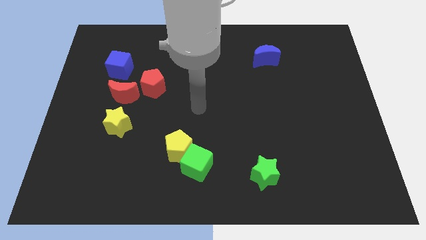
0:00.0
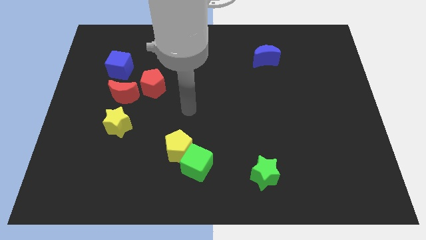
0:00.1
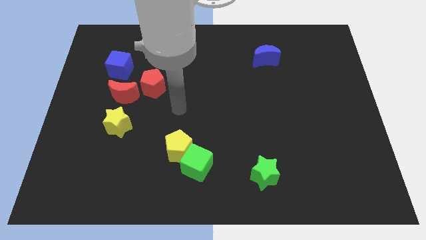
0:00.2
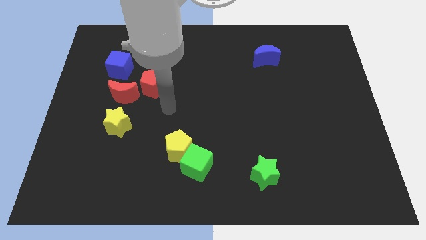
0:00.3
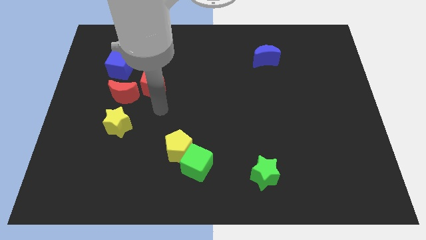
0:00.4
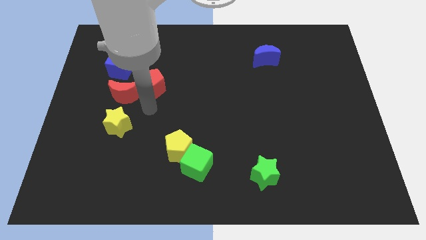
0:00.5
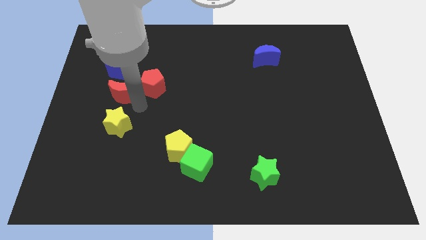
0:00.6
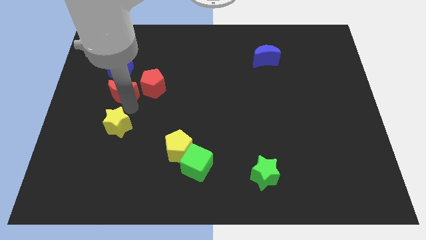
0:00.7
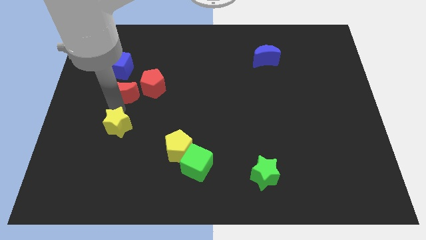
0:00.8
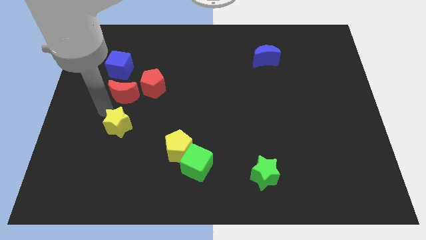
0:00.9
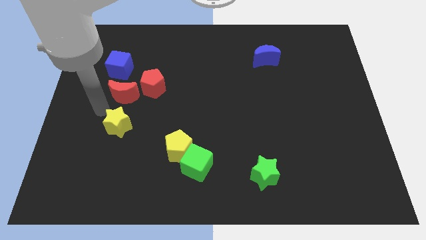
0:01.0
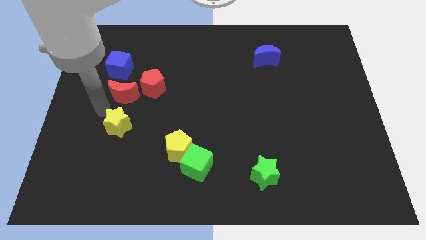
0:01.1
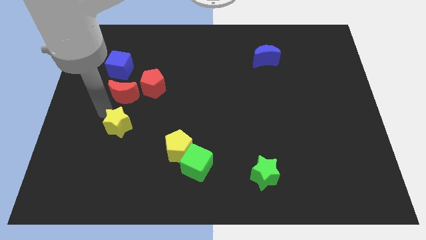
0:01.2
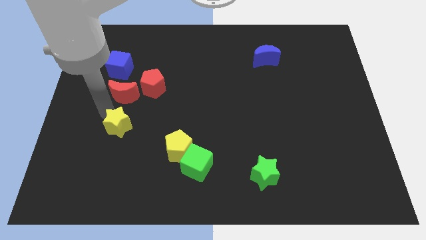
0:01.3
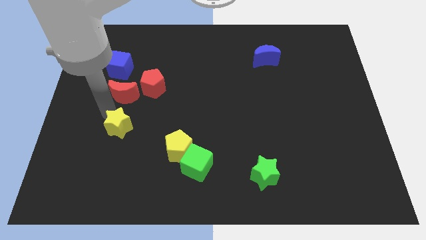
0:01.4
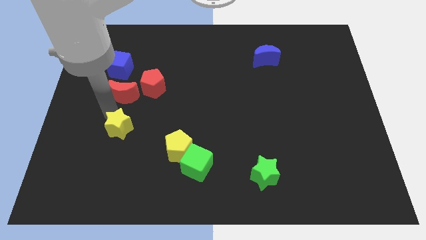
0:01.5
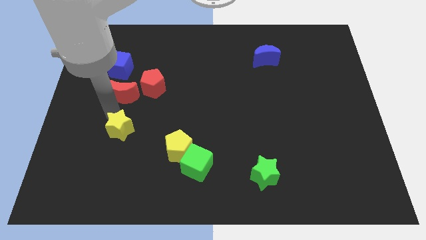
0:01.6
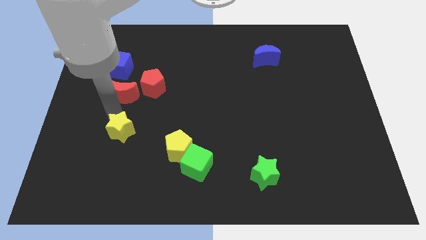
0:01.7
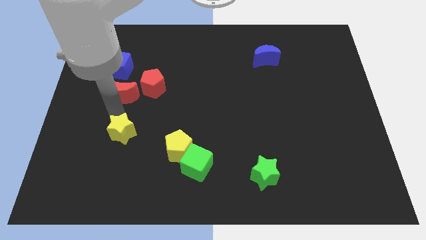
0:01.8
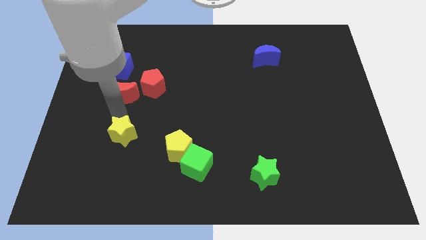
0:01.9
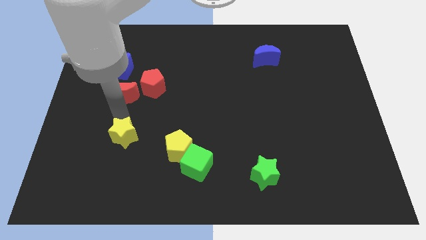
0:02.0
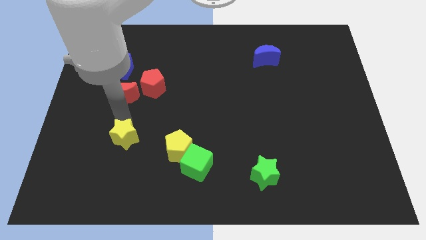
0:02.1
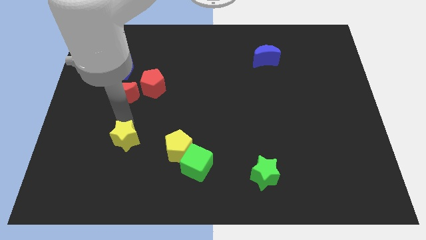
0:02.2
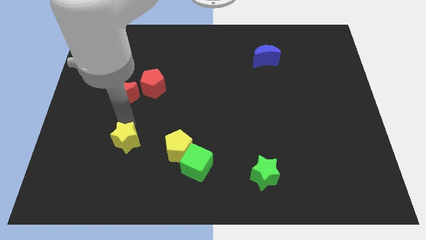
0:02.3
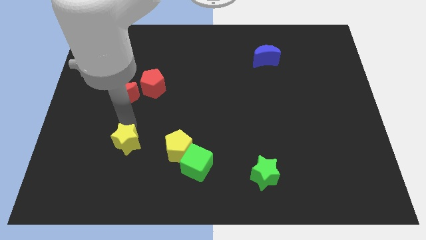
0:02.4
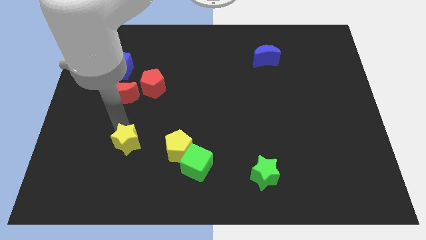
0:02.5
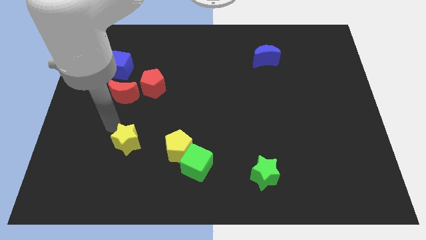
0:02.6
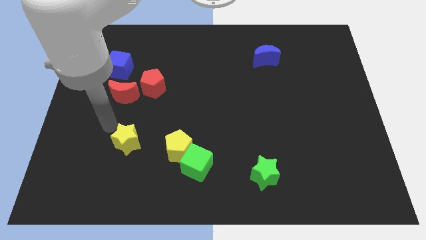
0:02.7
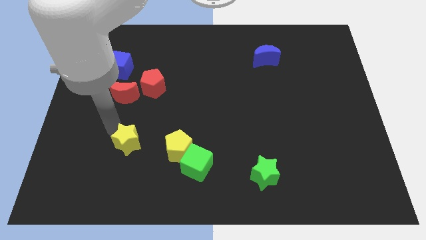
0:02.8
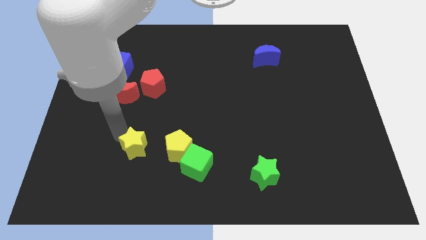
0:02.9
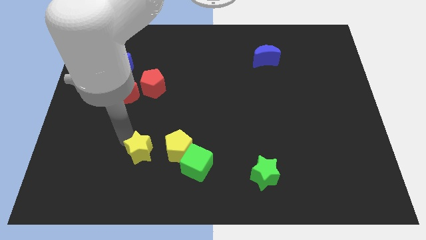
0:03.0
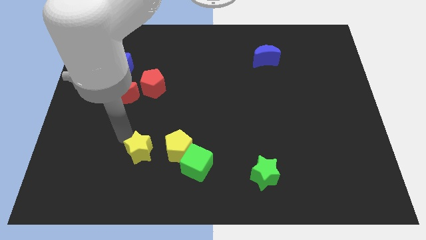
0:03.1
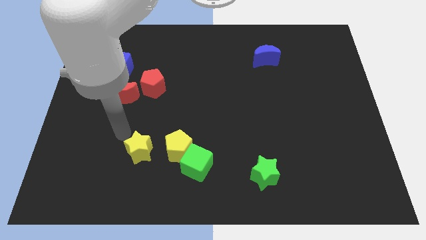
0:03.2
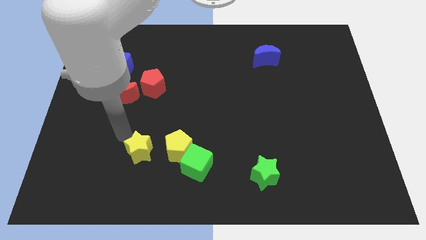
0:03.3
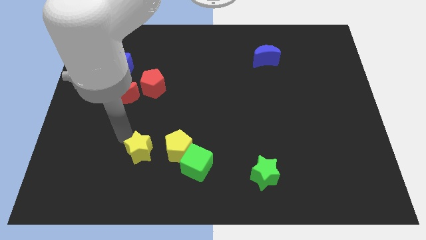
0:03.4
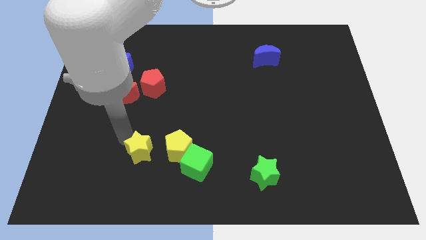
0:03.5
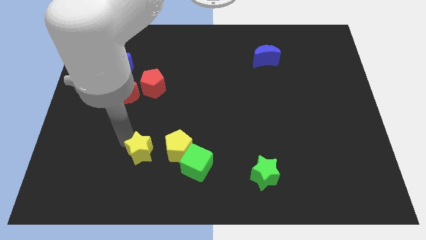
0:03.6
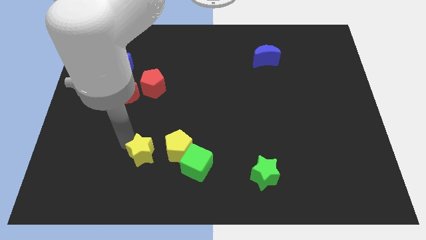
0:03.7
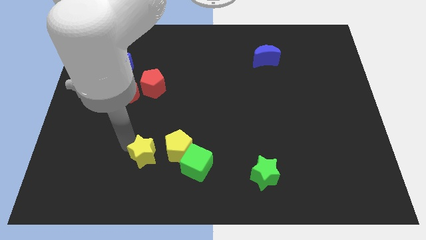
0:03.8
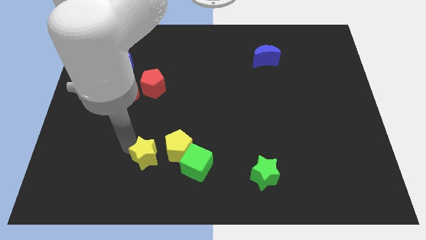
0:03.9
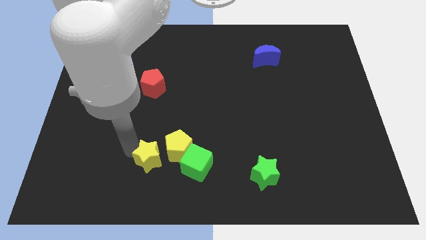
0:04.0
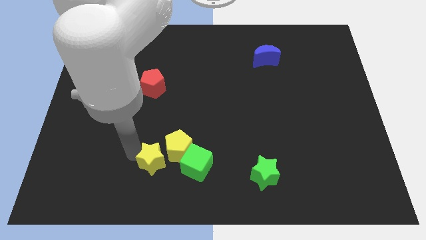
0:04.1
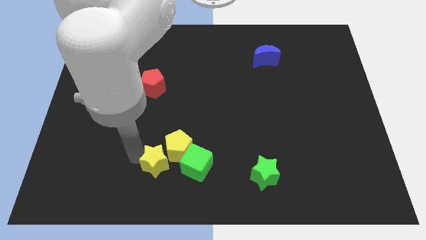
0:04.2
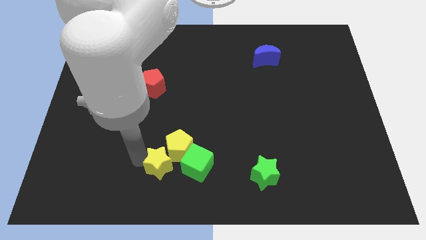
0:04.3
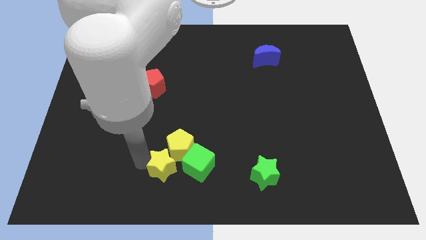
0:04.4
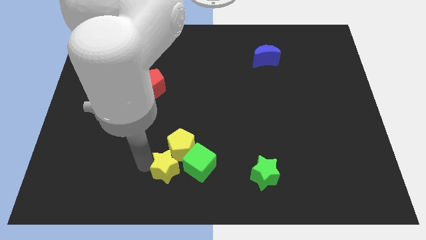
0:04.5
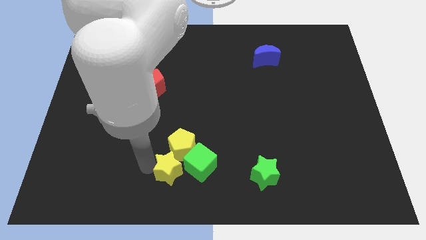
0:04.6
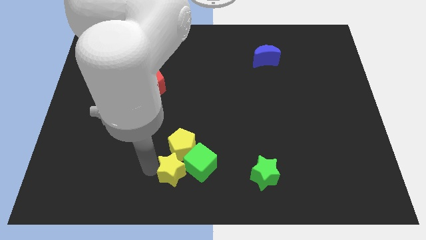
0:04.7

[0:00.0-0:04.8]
push the yellow star towards the green cube

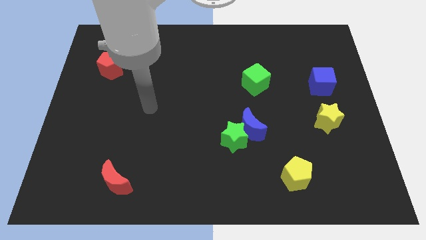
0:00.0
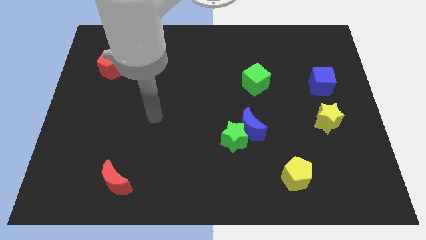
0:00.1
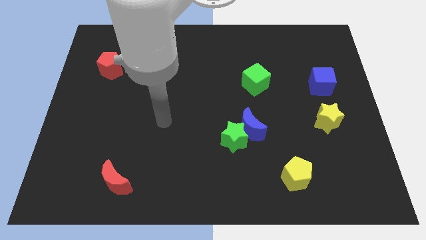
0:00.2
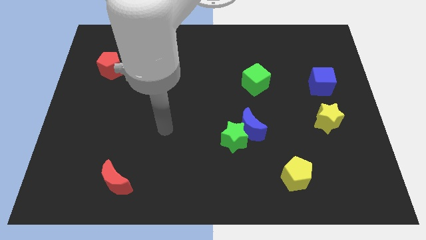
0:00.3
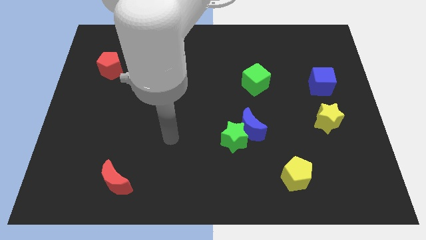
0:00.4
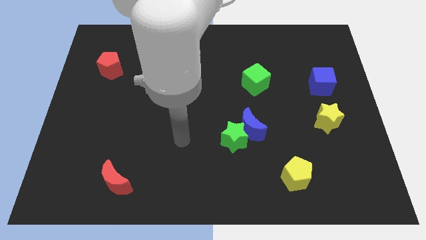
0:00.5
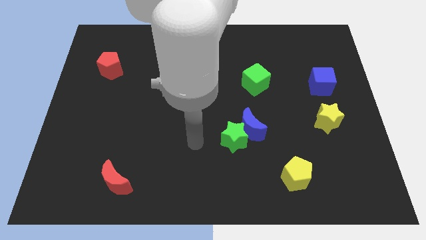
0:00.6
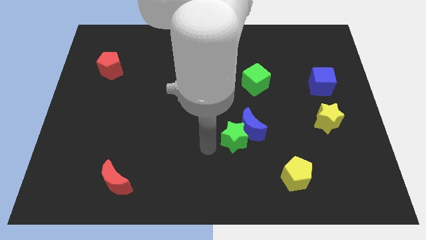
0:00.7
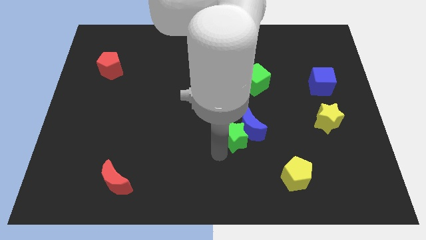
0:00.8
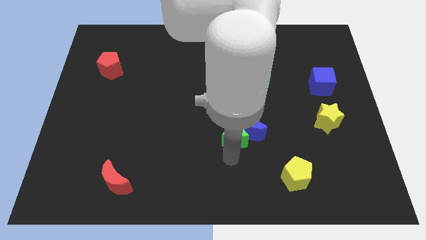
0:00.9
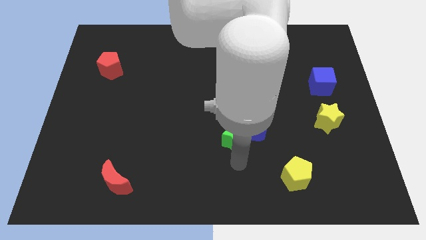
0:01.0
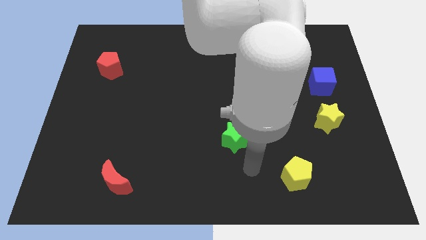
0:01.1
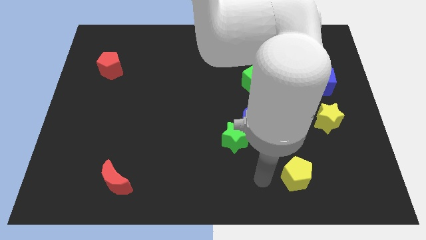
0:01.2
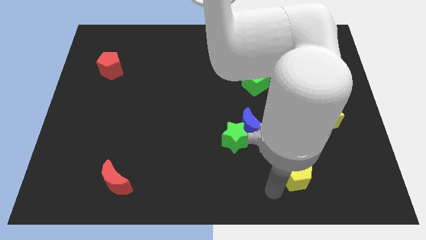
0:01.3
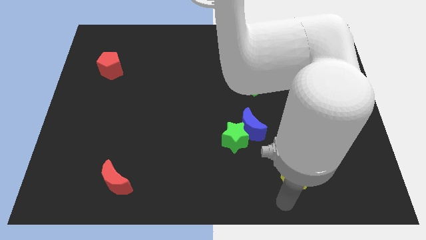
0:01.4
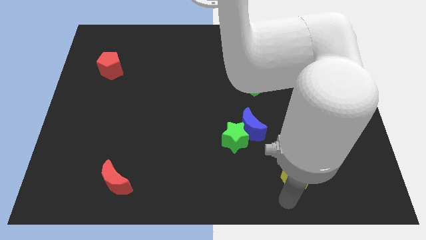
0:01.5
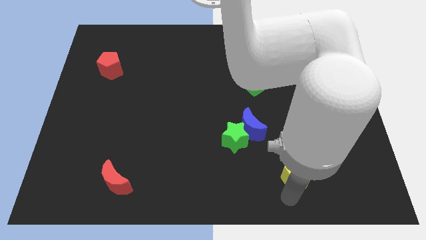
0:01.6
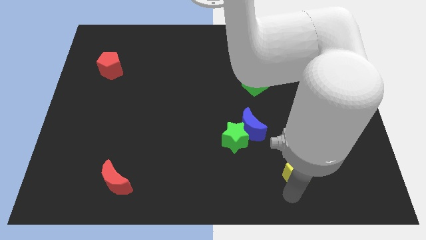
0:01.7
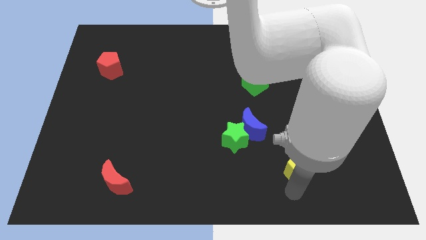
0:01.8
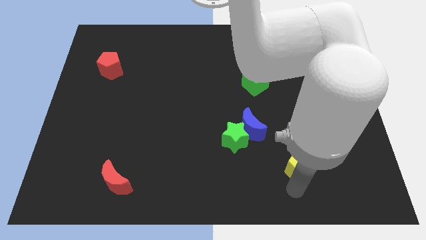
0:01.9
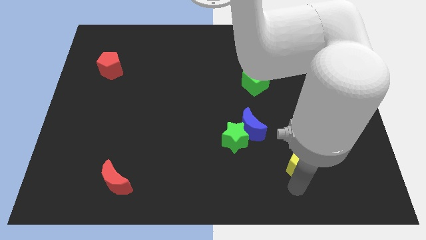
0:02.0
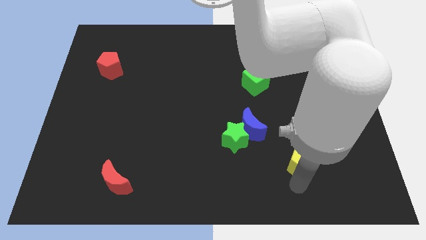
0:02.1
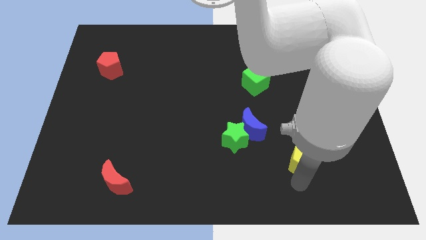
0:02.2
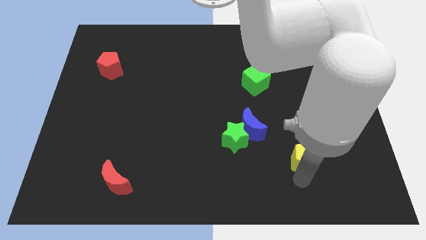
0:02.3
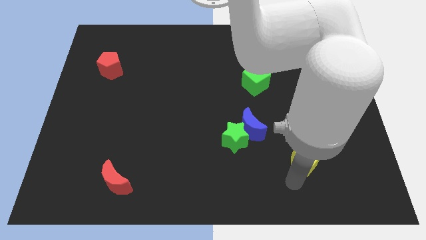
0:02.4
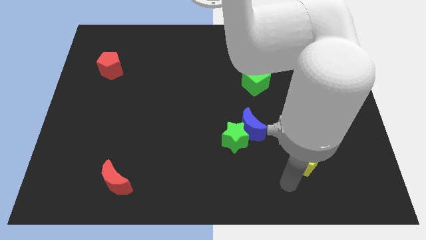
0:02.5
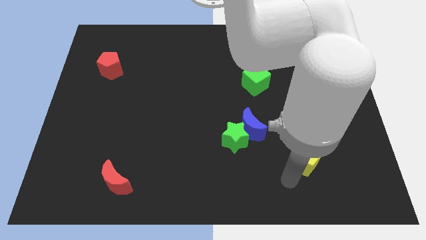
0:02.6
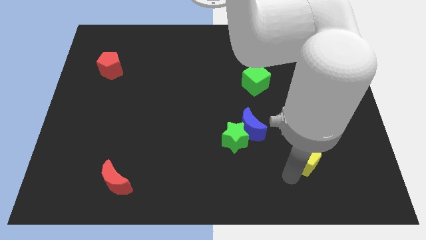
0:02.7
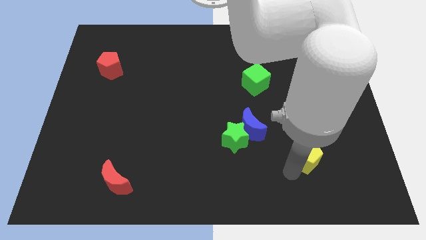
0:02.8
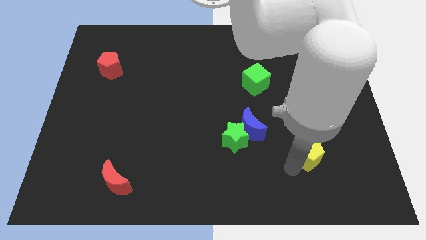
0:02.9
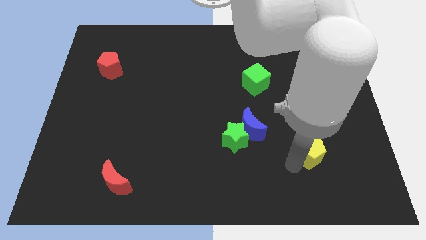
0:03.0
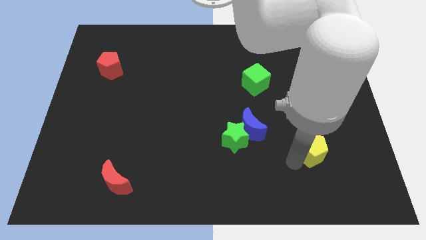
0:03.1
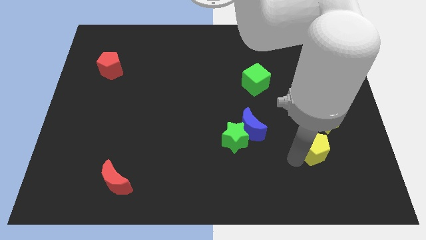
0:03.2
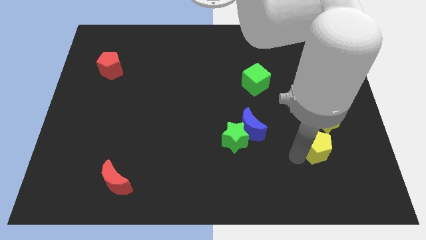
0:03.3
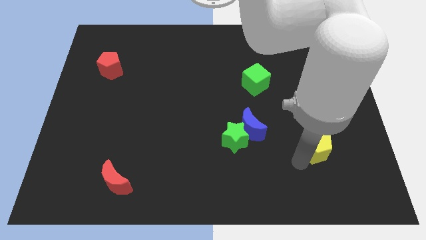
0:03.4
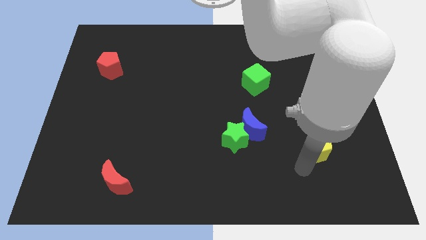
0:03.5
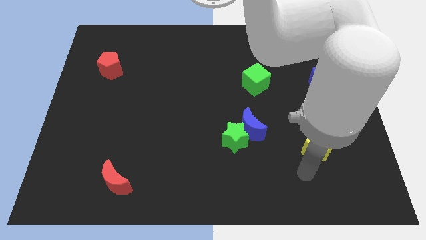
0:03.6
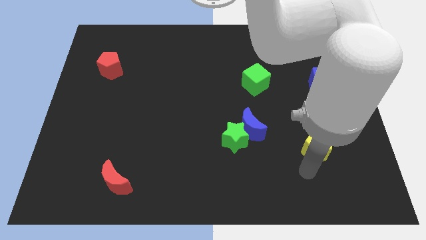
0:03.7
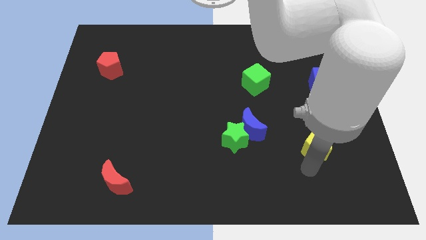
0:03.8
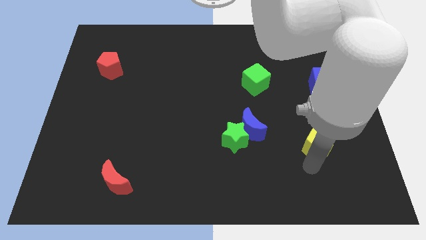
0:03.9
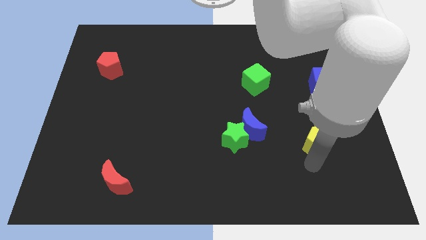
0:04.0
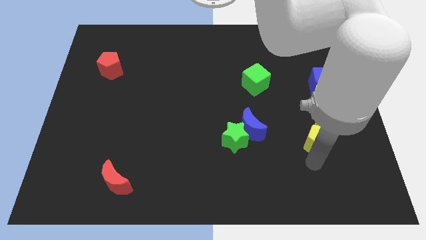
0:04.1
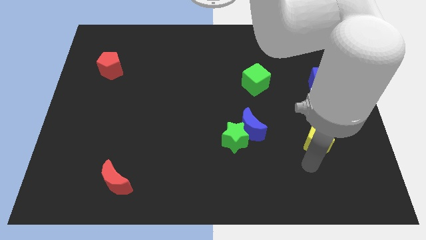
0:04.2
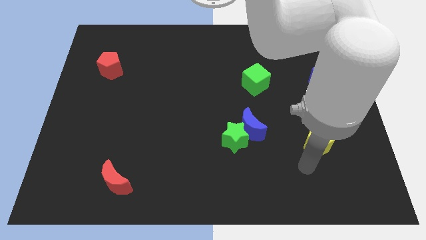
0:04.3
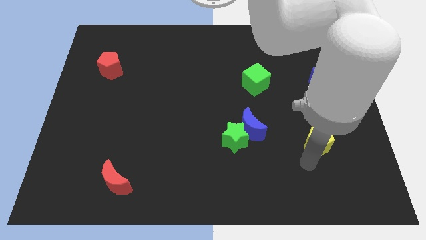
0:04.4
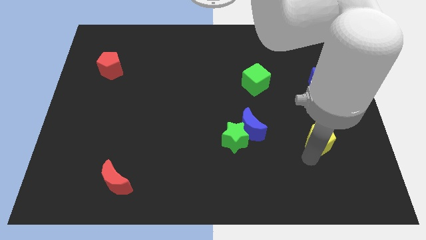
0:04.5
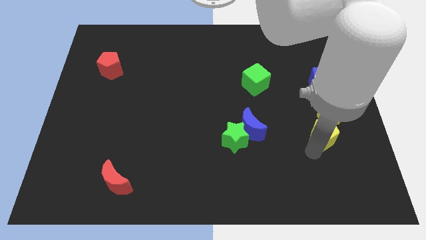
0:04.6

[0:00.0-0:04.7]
slide the yellow pentagon towards the yellow star
